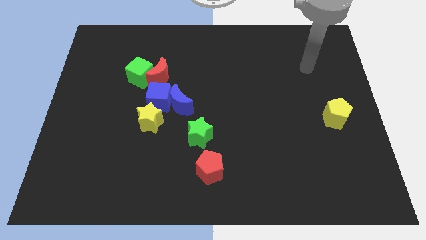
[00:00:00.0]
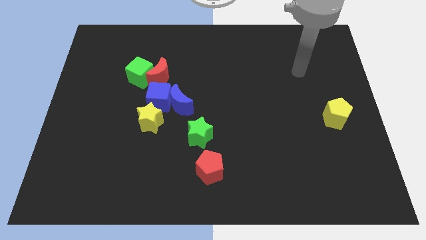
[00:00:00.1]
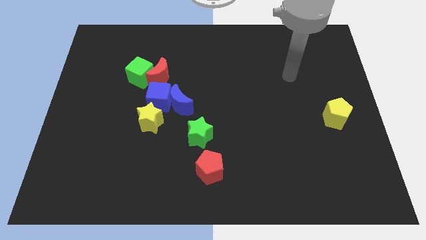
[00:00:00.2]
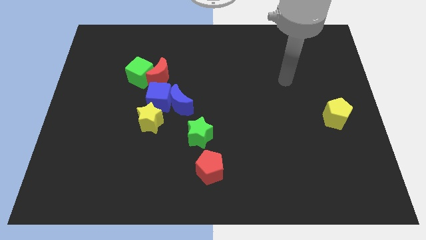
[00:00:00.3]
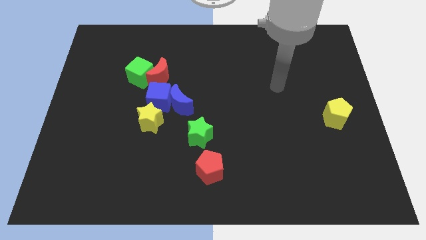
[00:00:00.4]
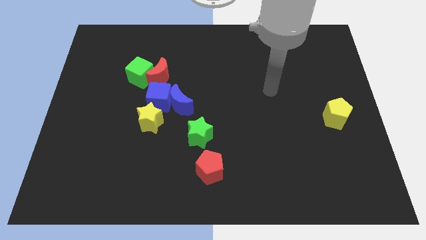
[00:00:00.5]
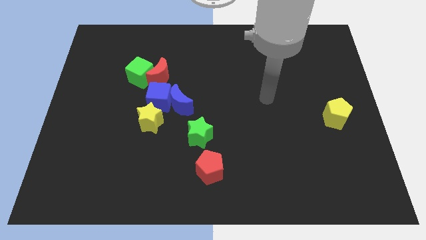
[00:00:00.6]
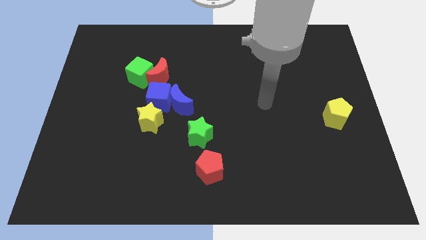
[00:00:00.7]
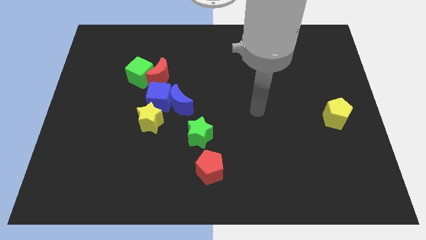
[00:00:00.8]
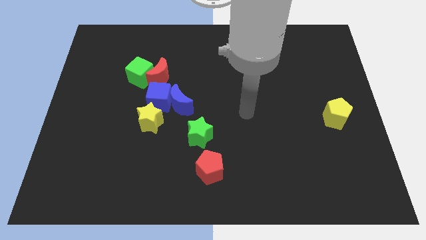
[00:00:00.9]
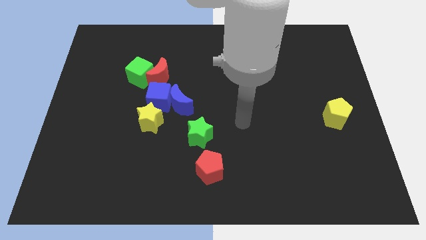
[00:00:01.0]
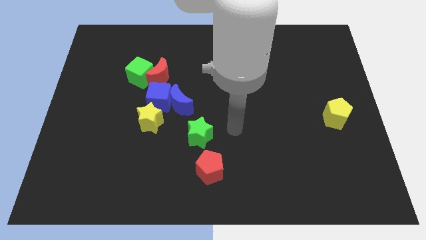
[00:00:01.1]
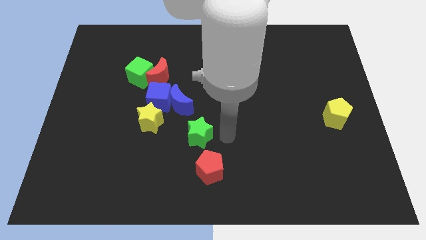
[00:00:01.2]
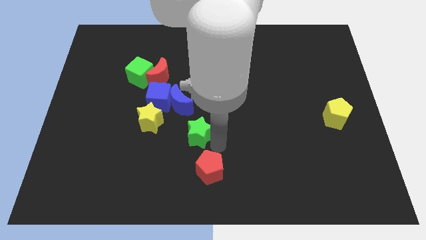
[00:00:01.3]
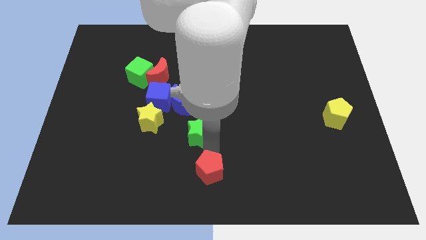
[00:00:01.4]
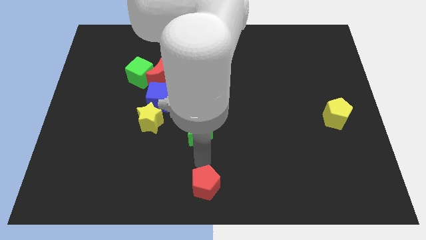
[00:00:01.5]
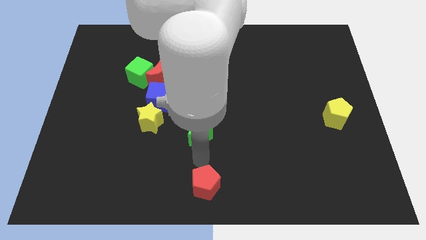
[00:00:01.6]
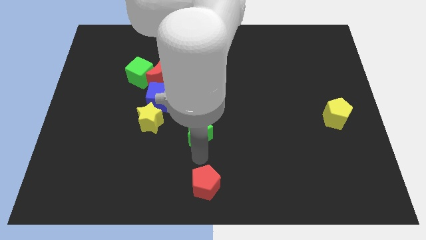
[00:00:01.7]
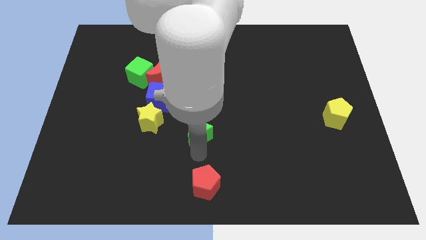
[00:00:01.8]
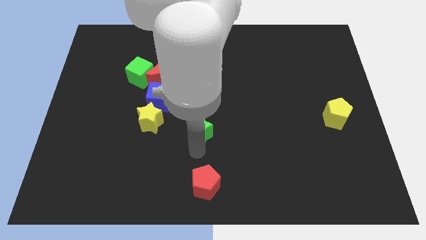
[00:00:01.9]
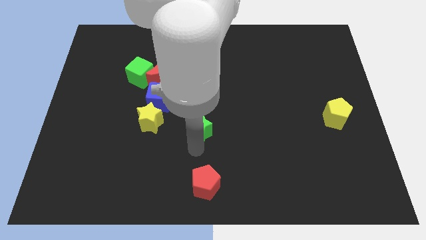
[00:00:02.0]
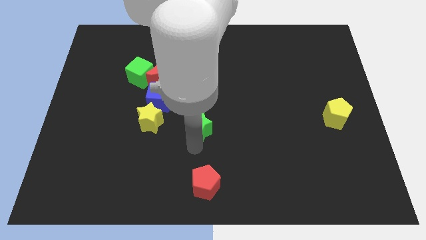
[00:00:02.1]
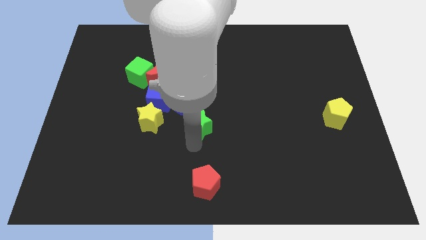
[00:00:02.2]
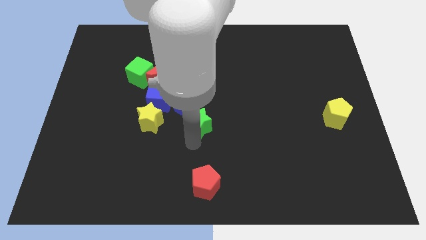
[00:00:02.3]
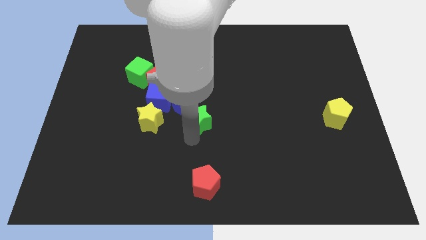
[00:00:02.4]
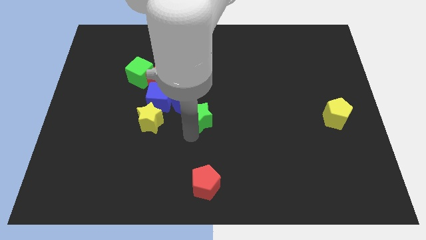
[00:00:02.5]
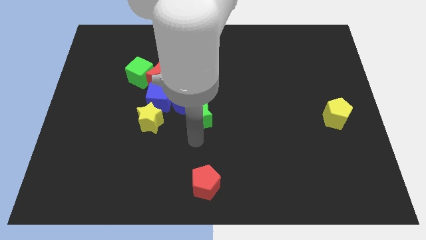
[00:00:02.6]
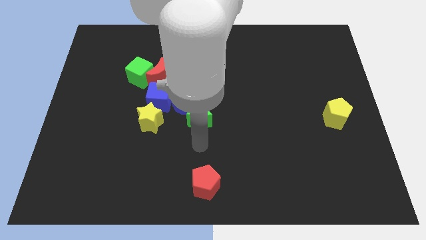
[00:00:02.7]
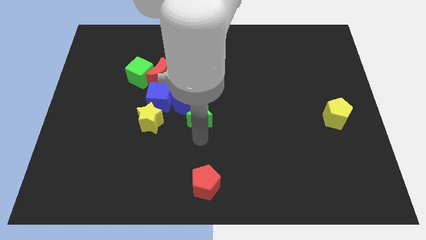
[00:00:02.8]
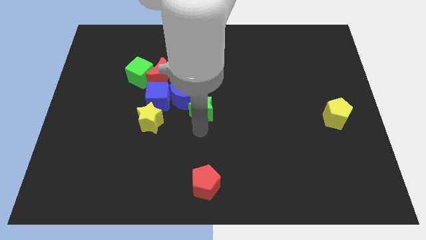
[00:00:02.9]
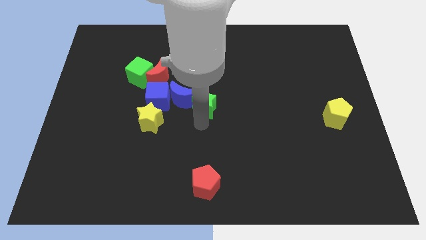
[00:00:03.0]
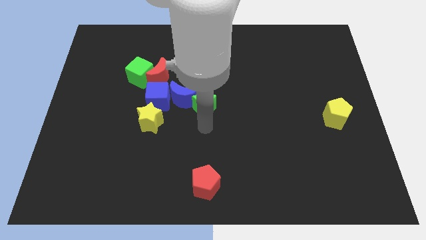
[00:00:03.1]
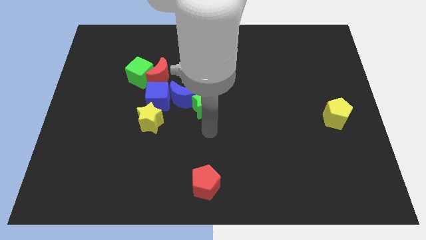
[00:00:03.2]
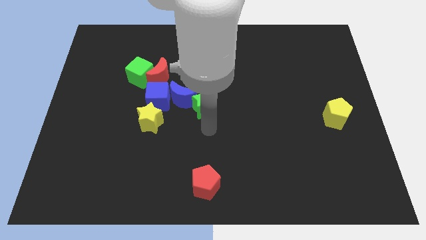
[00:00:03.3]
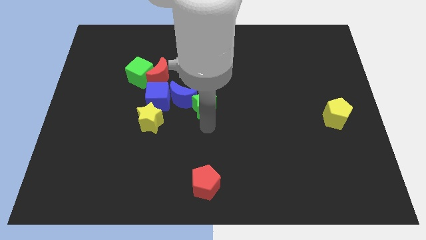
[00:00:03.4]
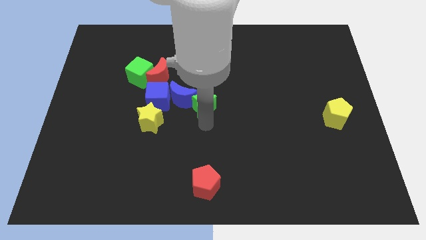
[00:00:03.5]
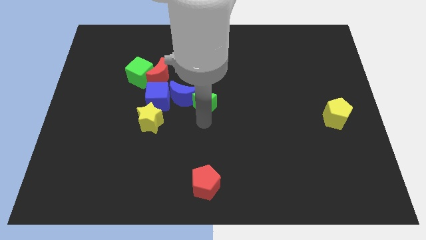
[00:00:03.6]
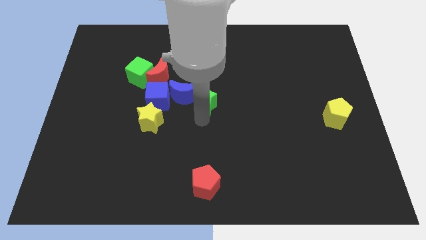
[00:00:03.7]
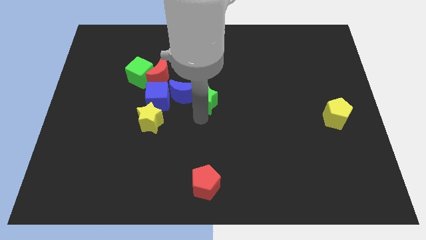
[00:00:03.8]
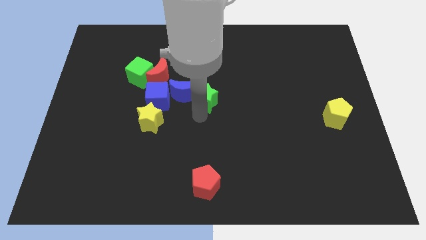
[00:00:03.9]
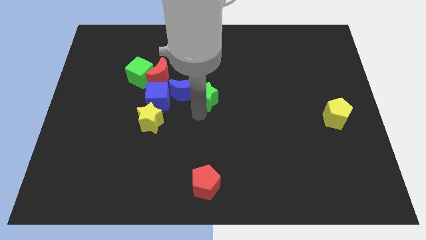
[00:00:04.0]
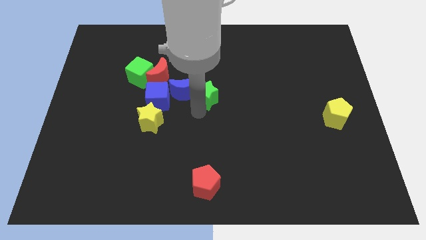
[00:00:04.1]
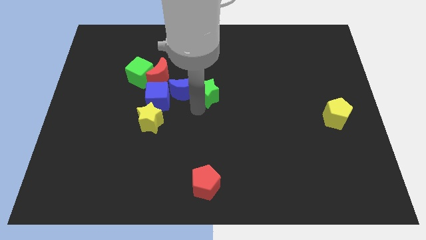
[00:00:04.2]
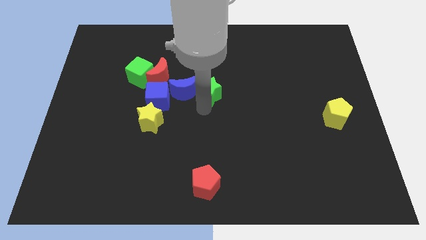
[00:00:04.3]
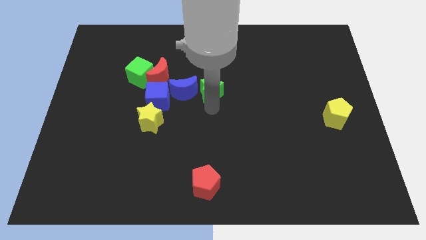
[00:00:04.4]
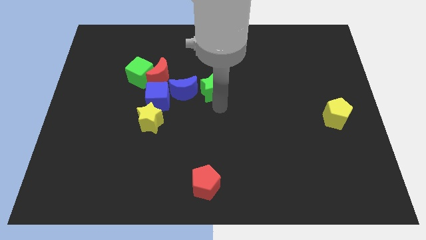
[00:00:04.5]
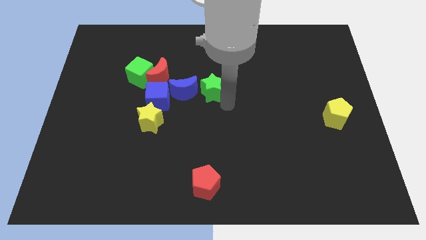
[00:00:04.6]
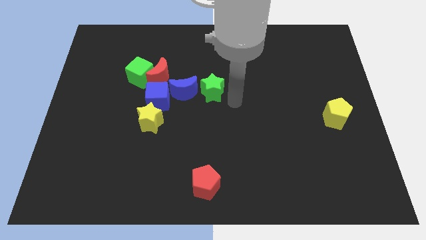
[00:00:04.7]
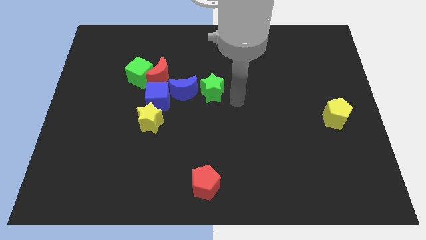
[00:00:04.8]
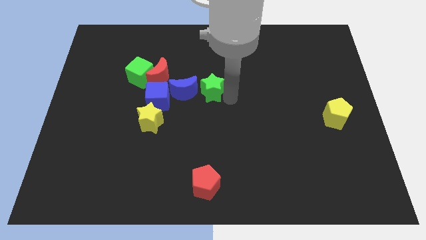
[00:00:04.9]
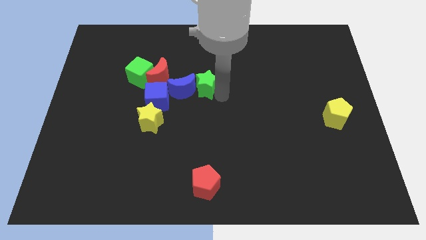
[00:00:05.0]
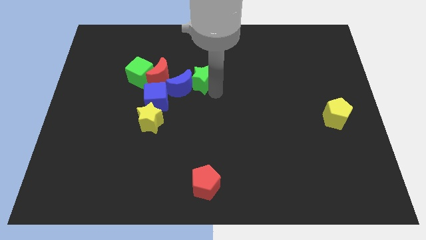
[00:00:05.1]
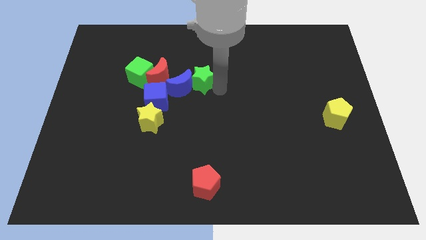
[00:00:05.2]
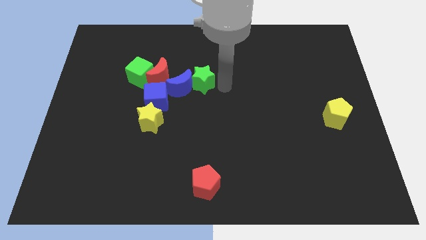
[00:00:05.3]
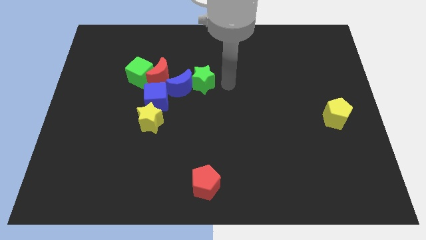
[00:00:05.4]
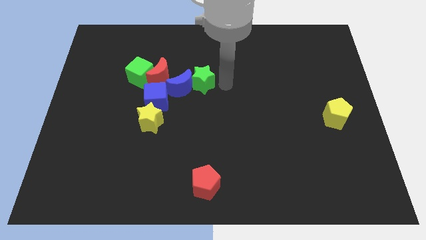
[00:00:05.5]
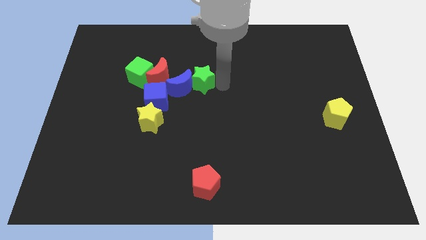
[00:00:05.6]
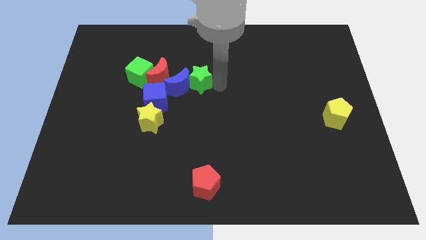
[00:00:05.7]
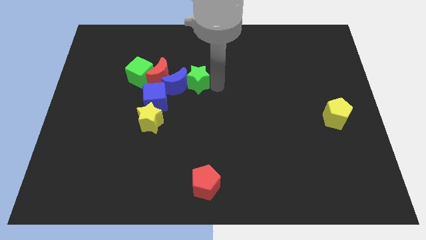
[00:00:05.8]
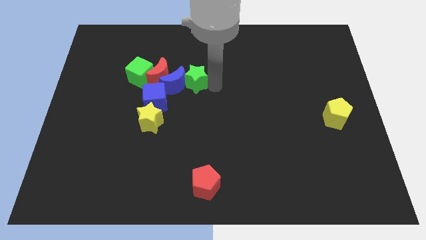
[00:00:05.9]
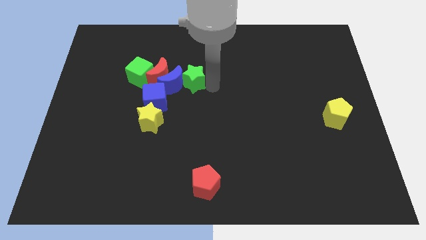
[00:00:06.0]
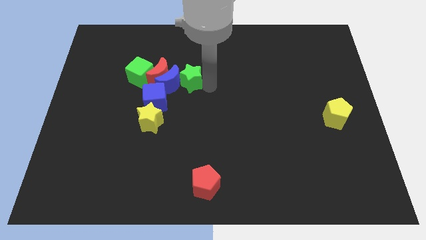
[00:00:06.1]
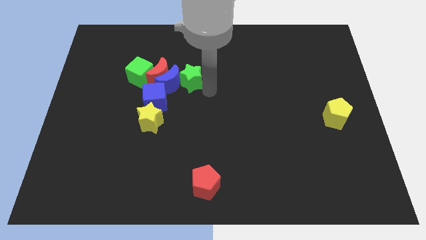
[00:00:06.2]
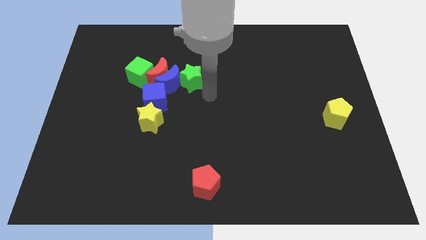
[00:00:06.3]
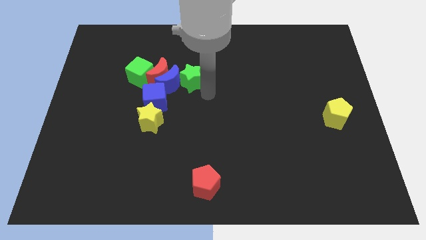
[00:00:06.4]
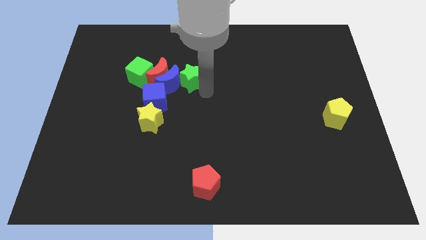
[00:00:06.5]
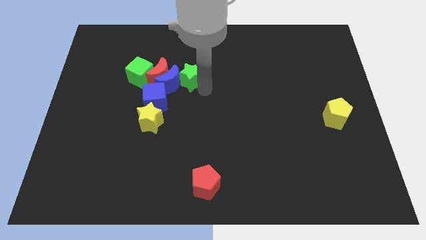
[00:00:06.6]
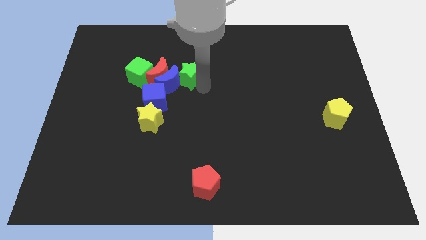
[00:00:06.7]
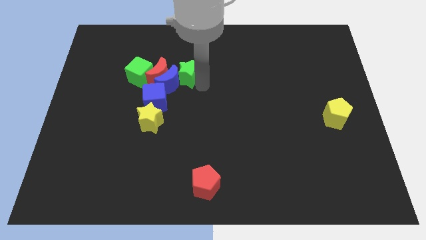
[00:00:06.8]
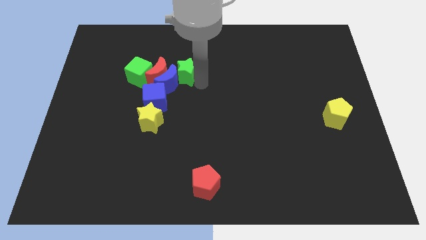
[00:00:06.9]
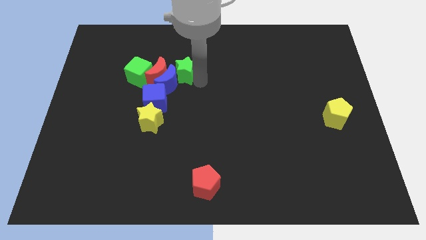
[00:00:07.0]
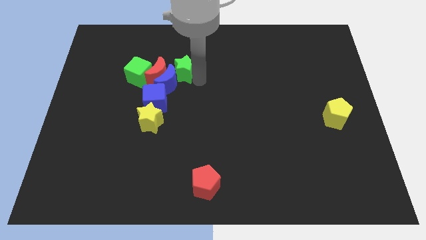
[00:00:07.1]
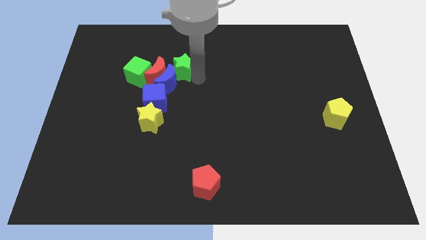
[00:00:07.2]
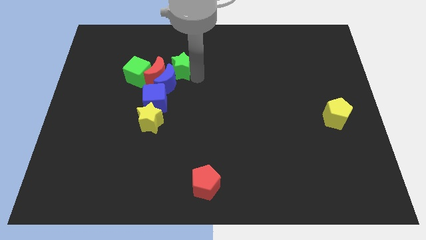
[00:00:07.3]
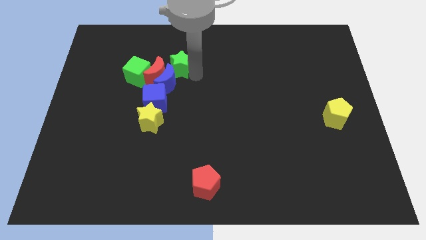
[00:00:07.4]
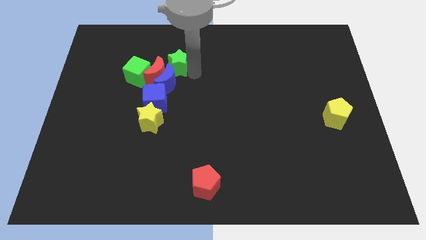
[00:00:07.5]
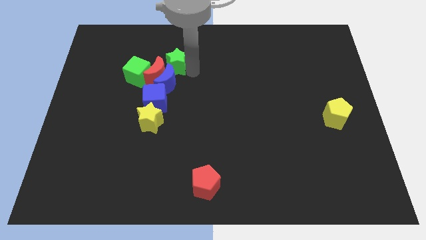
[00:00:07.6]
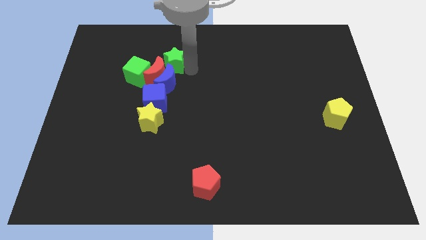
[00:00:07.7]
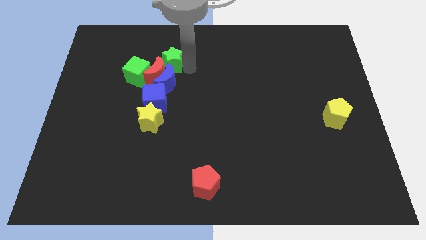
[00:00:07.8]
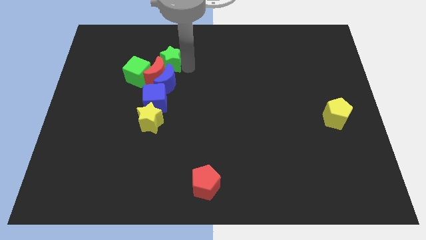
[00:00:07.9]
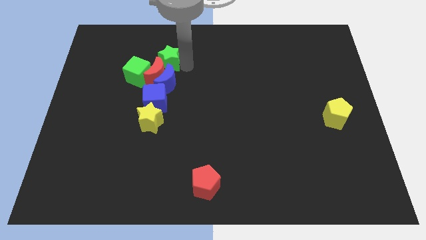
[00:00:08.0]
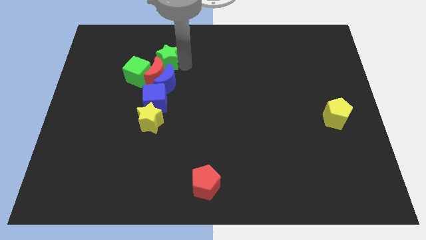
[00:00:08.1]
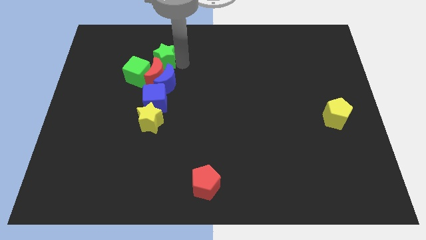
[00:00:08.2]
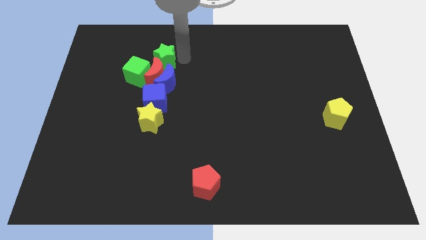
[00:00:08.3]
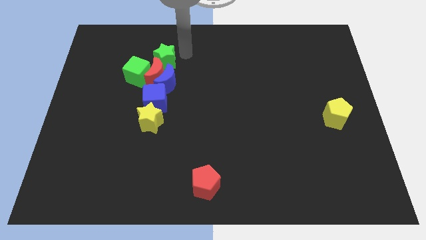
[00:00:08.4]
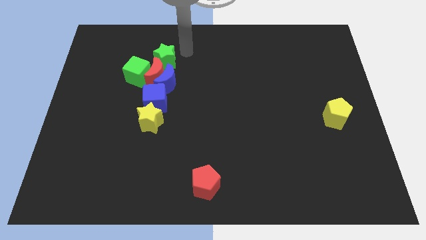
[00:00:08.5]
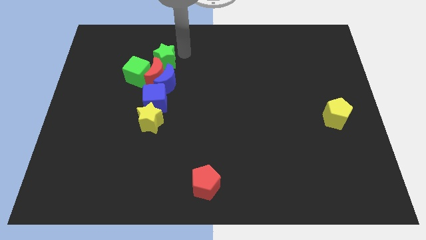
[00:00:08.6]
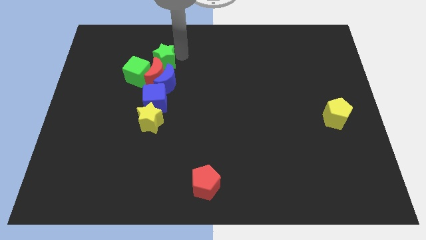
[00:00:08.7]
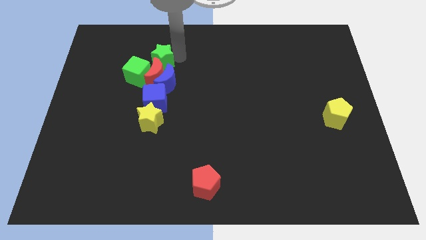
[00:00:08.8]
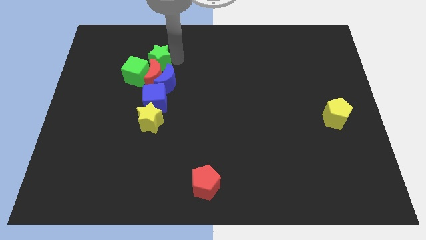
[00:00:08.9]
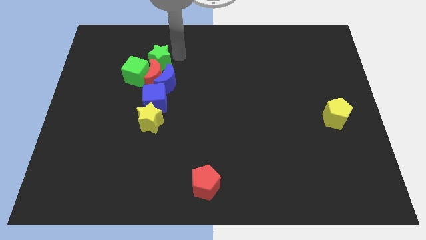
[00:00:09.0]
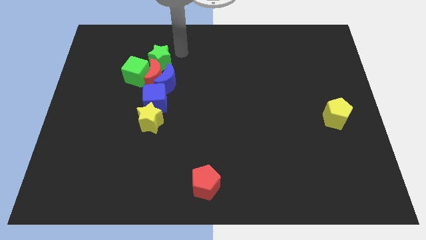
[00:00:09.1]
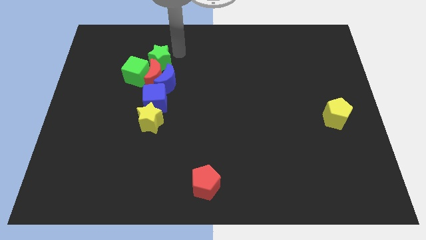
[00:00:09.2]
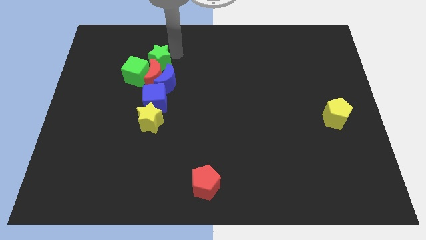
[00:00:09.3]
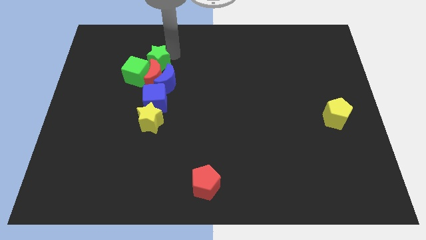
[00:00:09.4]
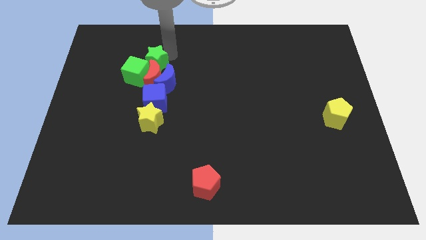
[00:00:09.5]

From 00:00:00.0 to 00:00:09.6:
push the green star next to the green cube
